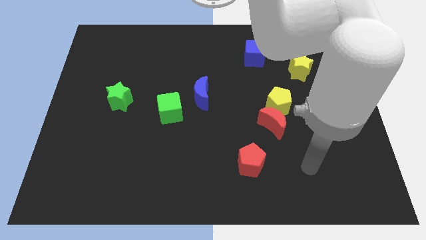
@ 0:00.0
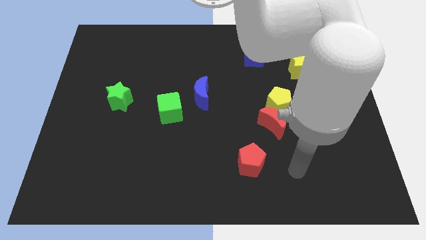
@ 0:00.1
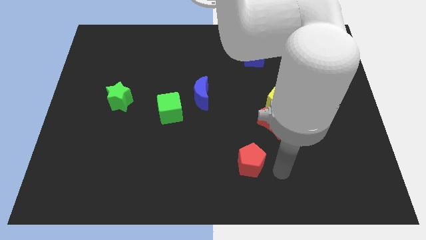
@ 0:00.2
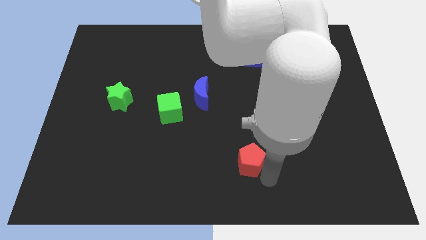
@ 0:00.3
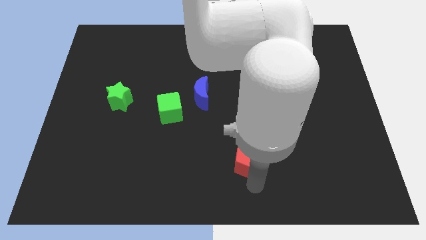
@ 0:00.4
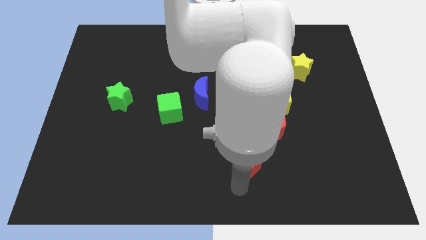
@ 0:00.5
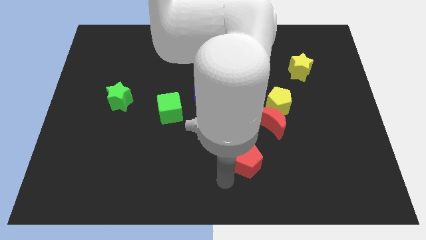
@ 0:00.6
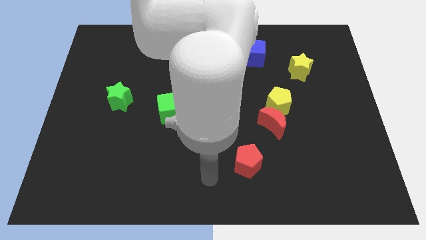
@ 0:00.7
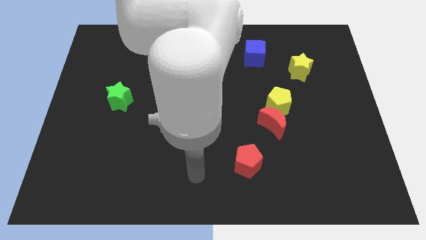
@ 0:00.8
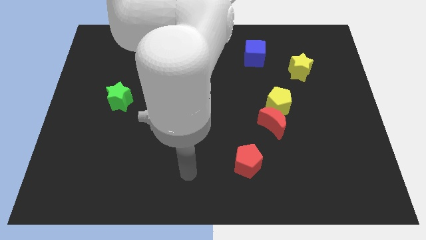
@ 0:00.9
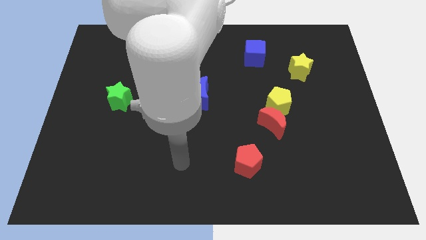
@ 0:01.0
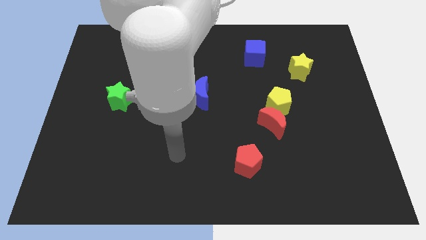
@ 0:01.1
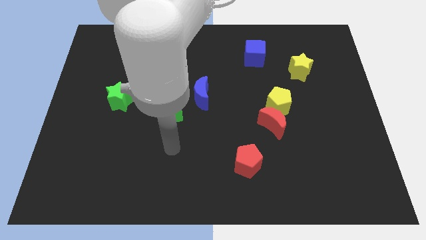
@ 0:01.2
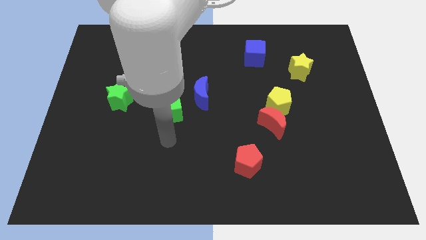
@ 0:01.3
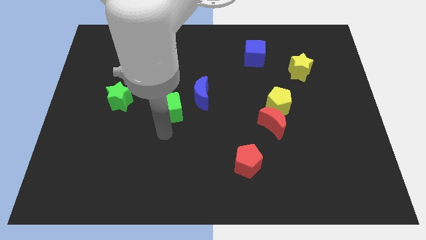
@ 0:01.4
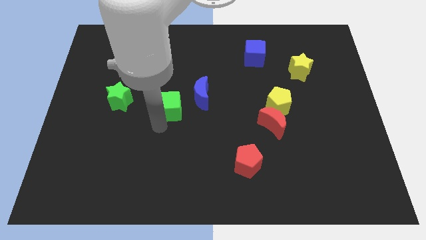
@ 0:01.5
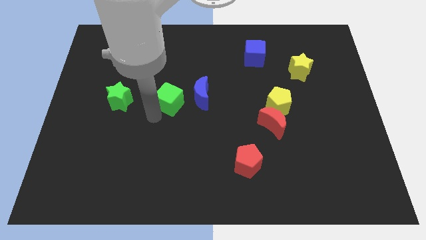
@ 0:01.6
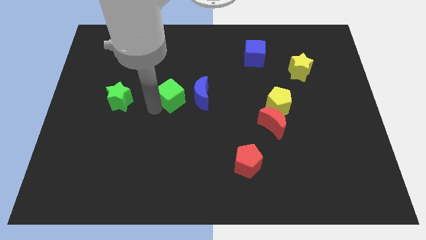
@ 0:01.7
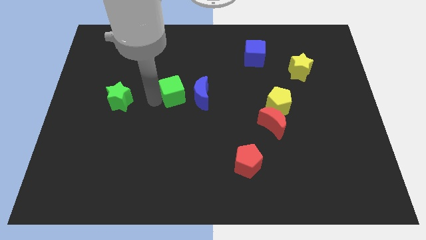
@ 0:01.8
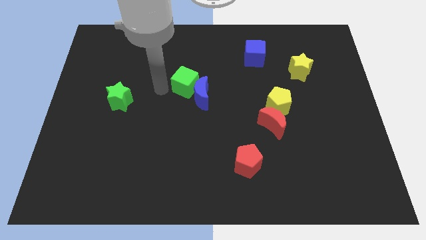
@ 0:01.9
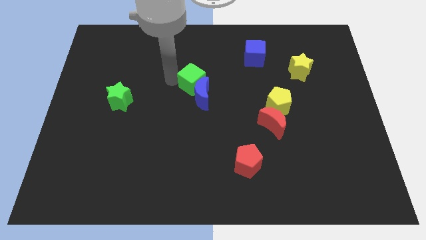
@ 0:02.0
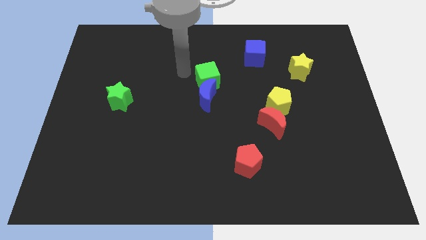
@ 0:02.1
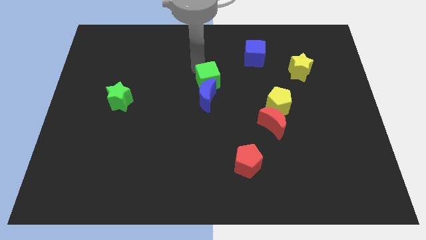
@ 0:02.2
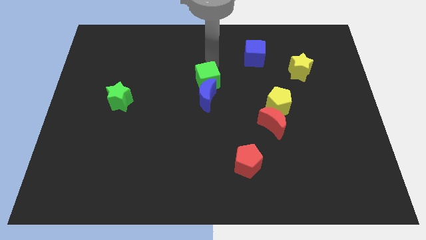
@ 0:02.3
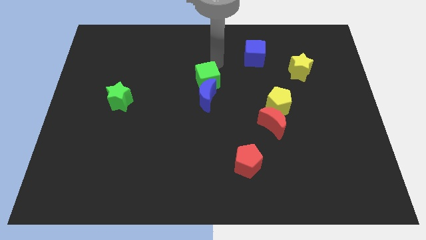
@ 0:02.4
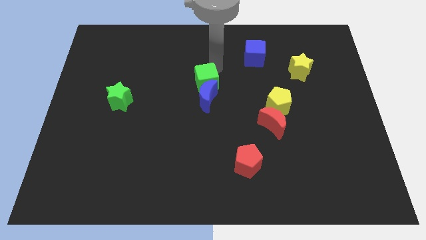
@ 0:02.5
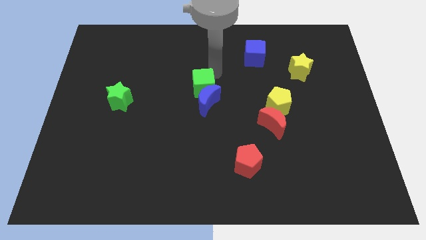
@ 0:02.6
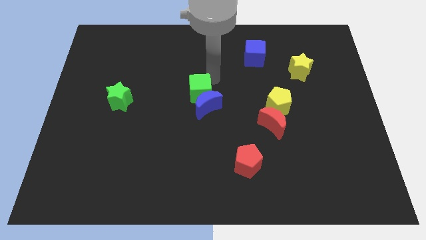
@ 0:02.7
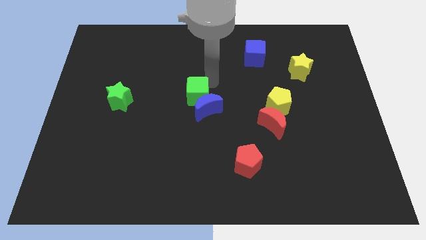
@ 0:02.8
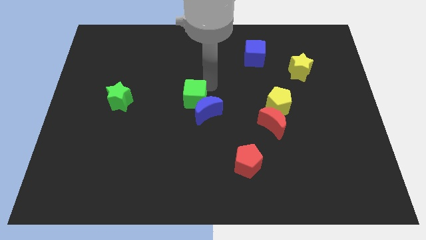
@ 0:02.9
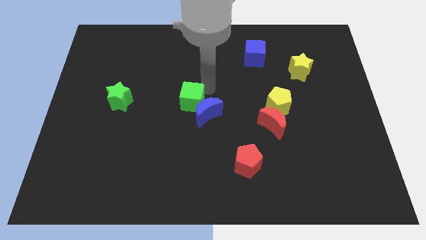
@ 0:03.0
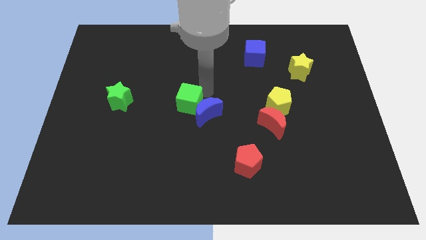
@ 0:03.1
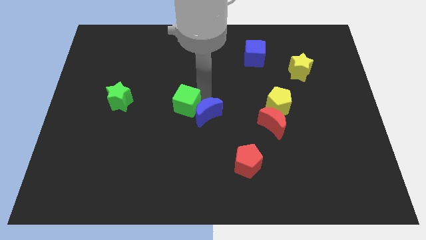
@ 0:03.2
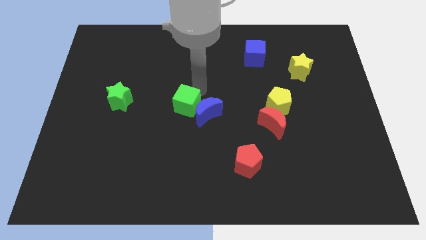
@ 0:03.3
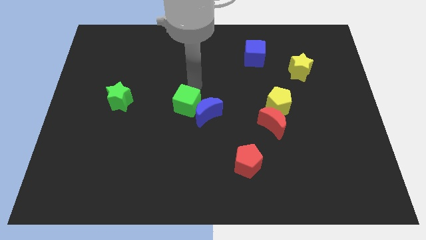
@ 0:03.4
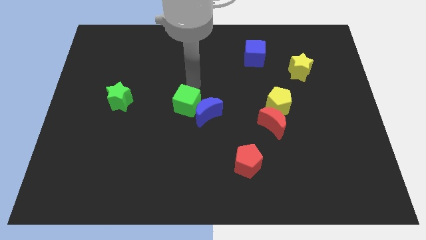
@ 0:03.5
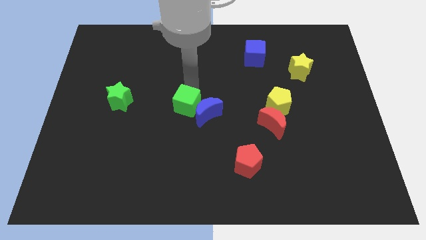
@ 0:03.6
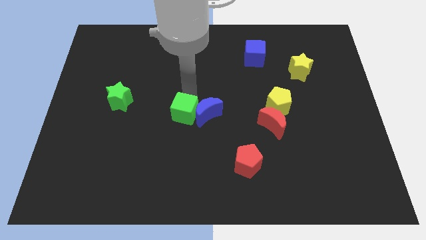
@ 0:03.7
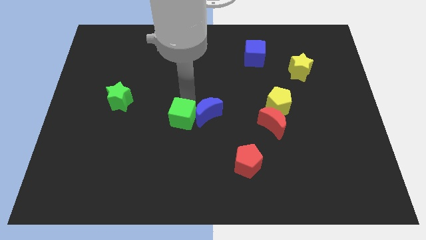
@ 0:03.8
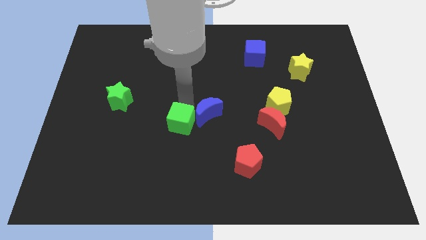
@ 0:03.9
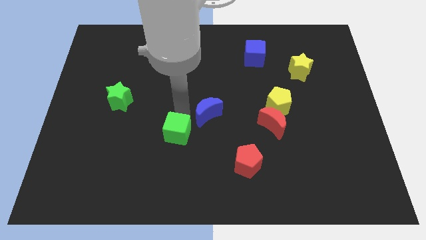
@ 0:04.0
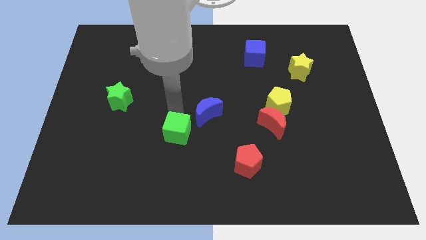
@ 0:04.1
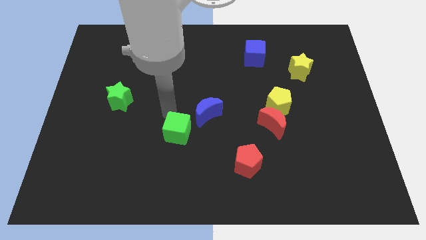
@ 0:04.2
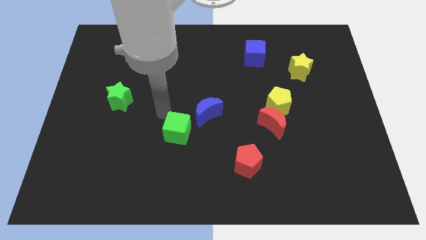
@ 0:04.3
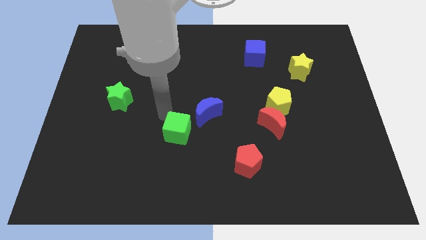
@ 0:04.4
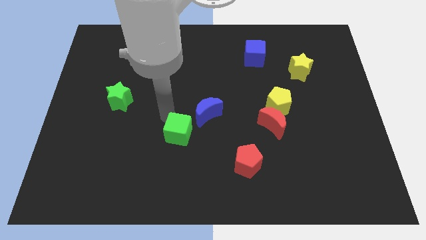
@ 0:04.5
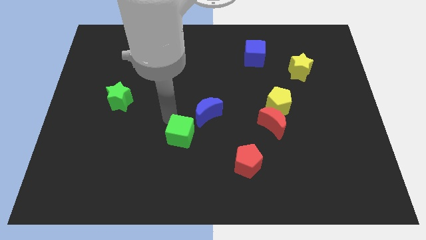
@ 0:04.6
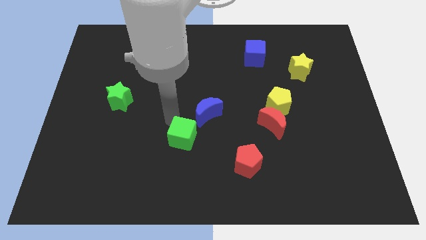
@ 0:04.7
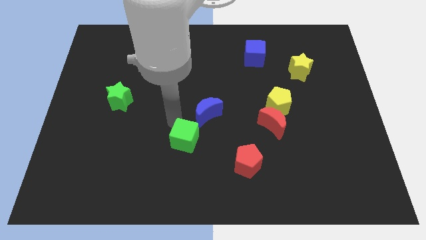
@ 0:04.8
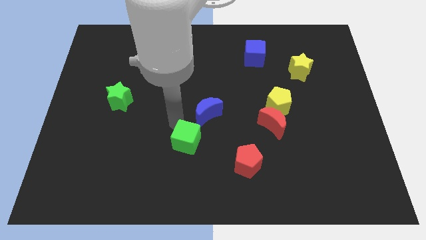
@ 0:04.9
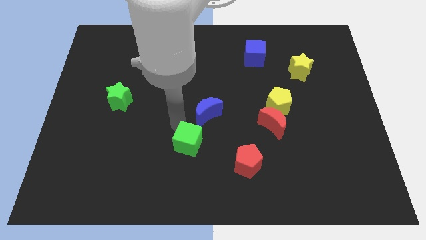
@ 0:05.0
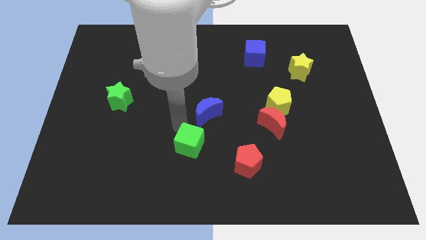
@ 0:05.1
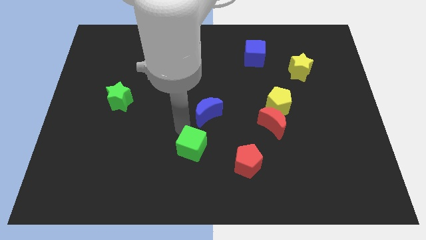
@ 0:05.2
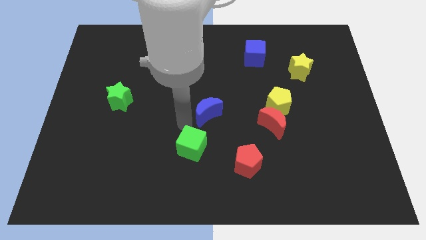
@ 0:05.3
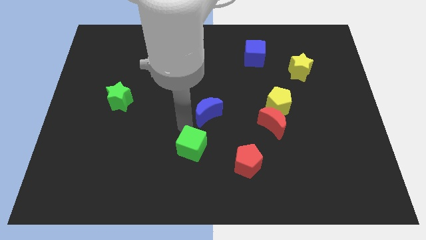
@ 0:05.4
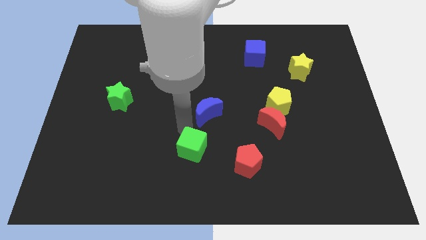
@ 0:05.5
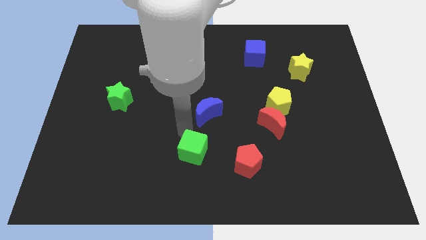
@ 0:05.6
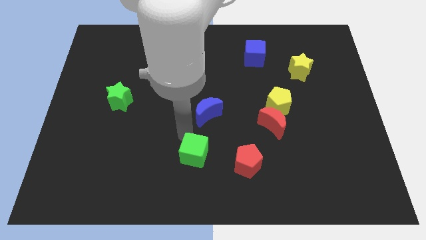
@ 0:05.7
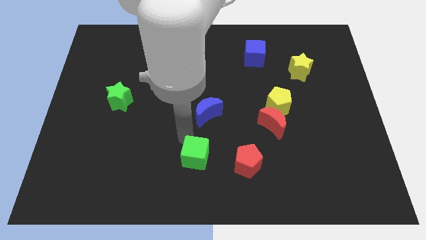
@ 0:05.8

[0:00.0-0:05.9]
slide the green cube to the bottom

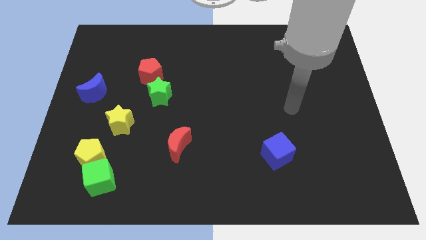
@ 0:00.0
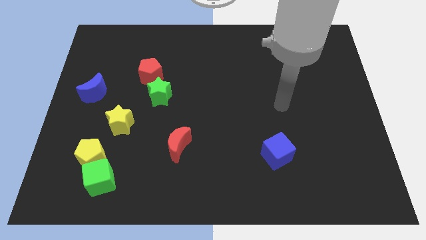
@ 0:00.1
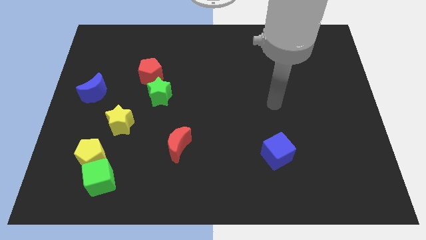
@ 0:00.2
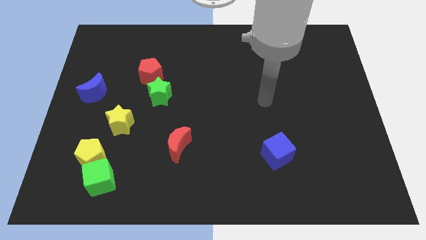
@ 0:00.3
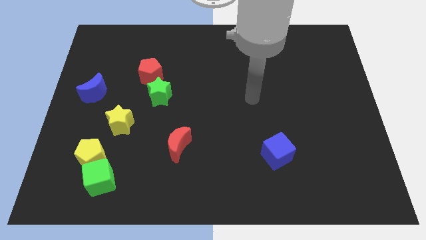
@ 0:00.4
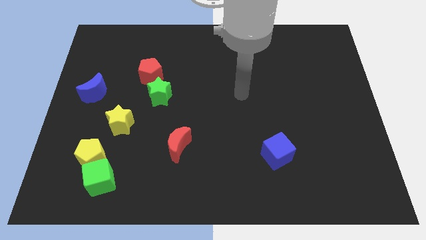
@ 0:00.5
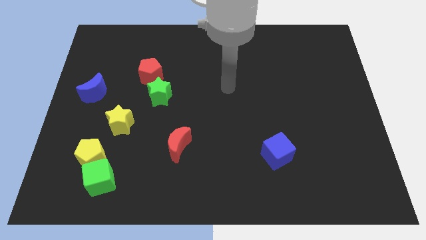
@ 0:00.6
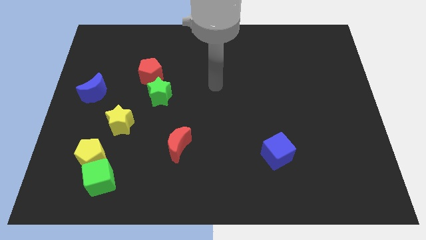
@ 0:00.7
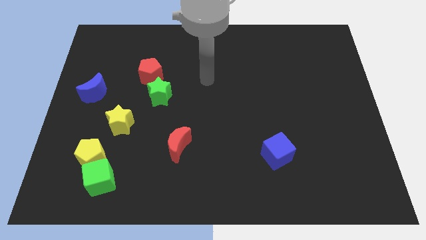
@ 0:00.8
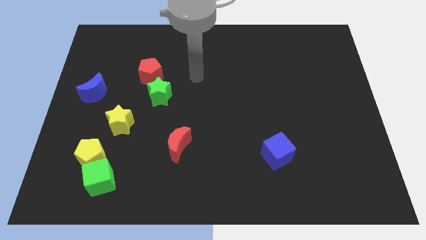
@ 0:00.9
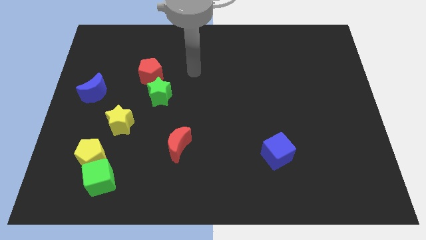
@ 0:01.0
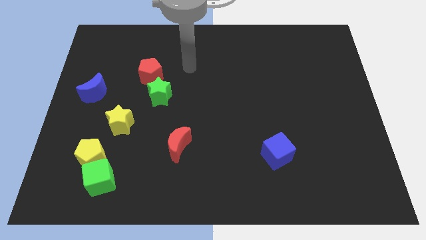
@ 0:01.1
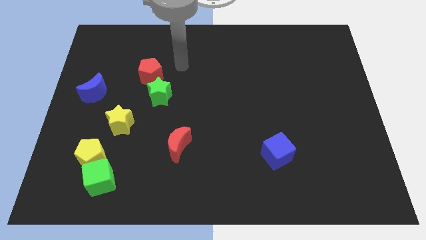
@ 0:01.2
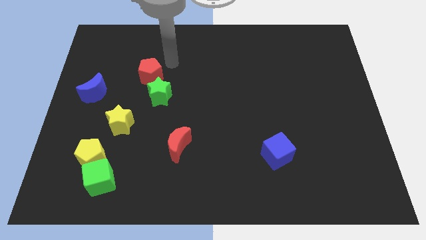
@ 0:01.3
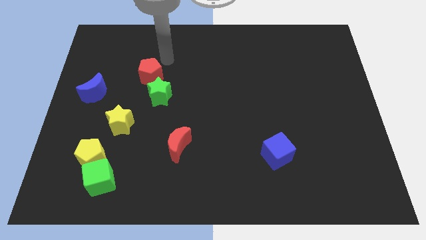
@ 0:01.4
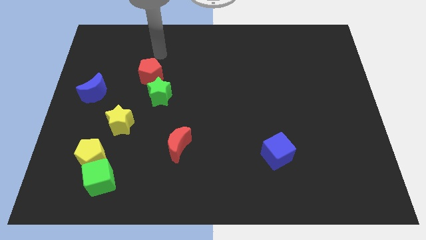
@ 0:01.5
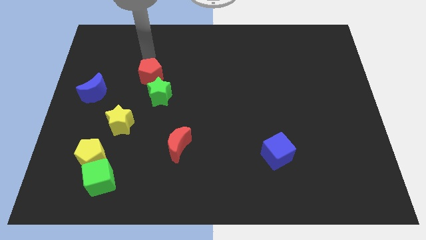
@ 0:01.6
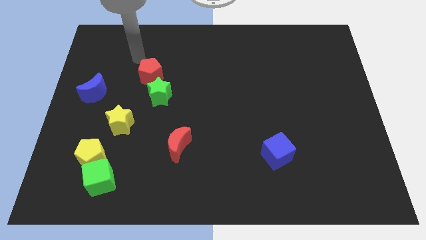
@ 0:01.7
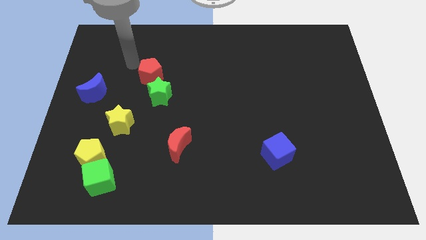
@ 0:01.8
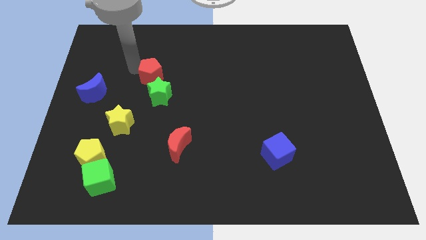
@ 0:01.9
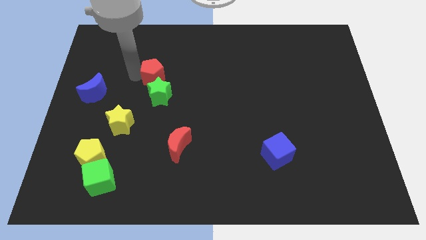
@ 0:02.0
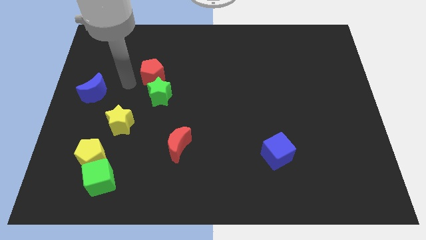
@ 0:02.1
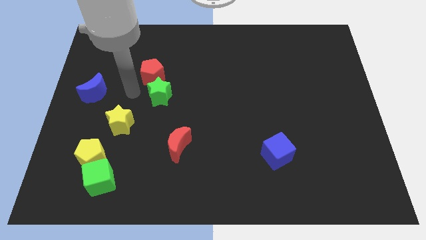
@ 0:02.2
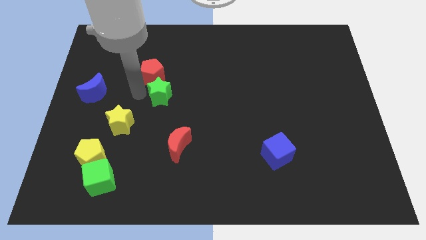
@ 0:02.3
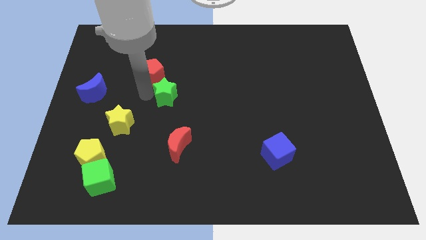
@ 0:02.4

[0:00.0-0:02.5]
put the green star to the middle
